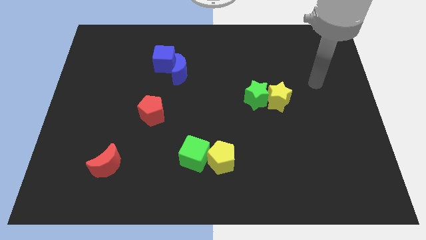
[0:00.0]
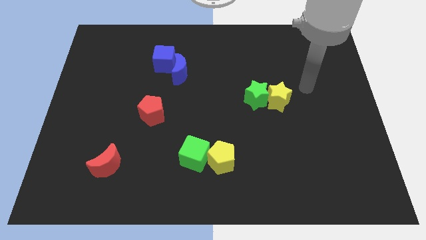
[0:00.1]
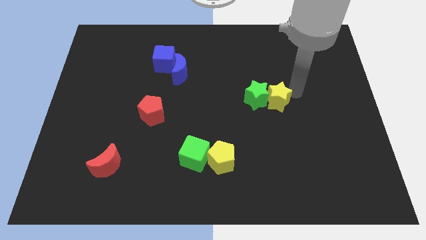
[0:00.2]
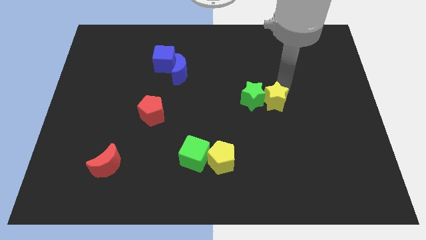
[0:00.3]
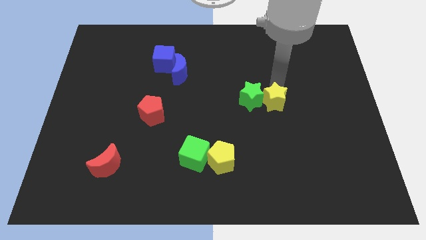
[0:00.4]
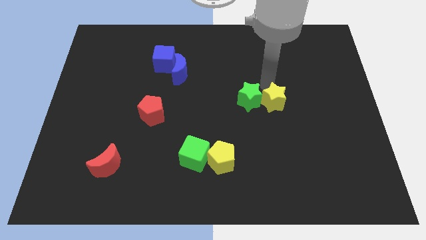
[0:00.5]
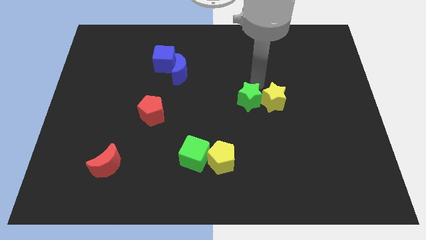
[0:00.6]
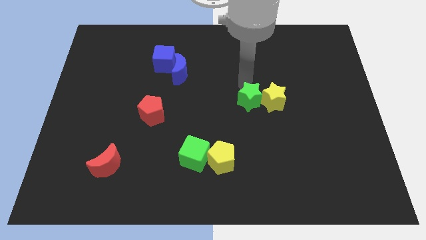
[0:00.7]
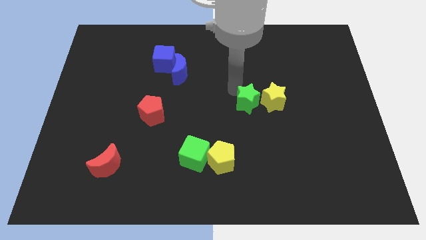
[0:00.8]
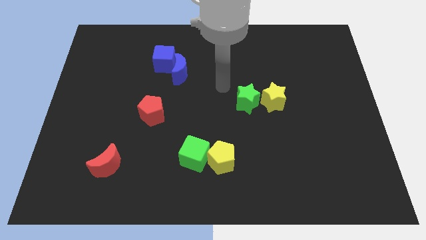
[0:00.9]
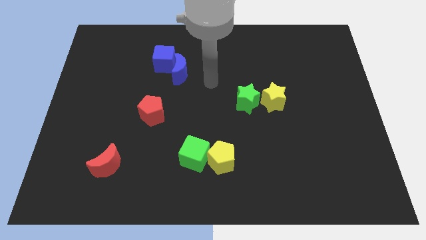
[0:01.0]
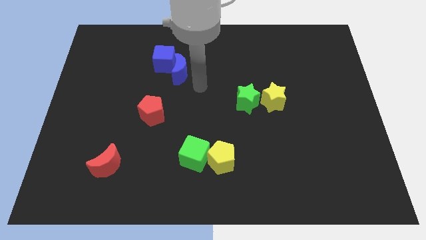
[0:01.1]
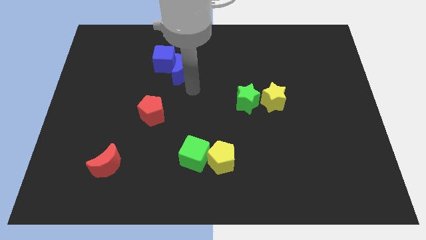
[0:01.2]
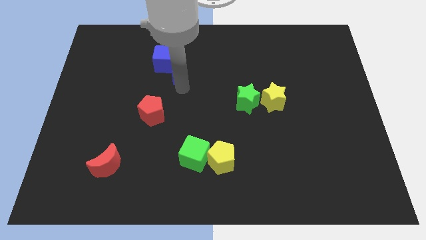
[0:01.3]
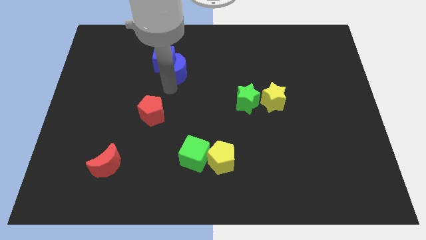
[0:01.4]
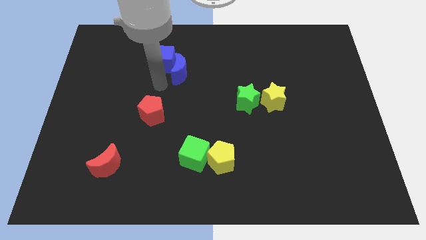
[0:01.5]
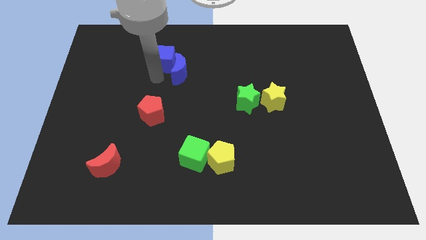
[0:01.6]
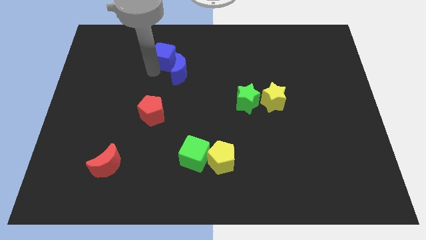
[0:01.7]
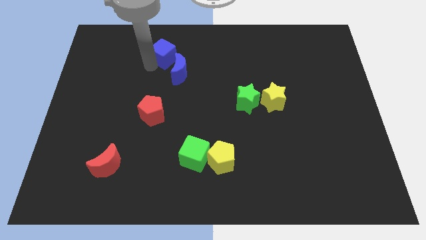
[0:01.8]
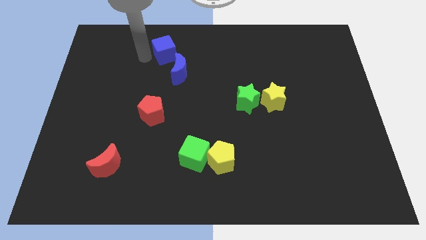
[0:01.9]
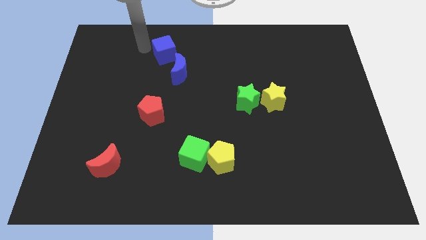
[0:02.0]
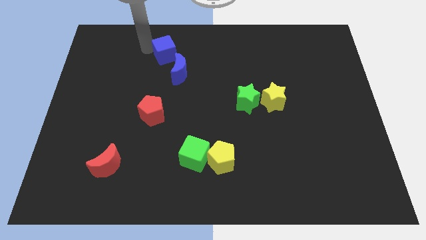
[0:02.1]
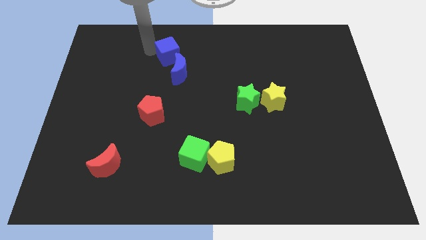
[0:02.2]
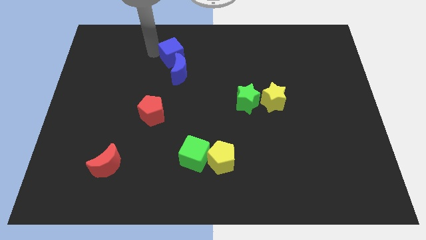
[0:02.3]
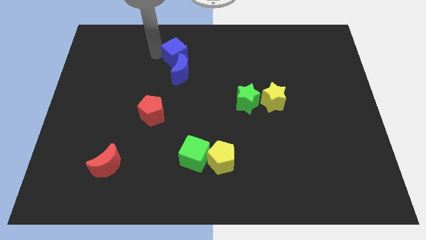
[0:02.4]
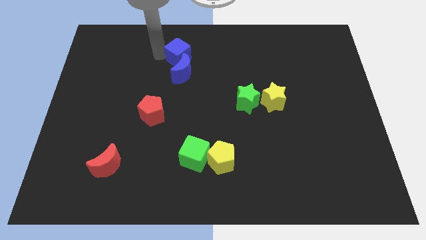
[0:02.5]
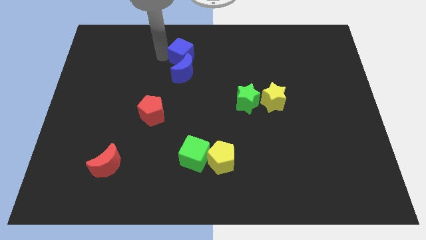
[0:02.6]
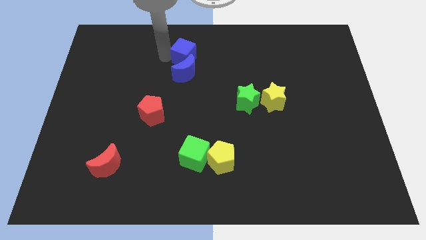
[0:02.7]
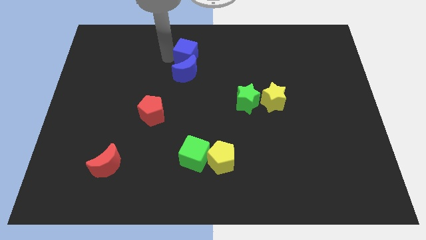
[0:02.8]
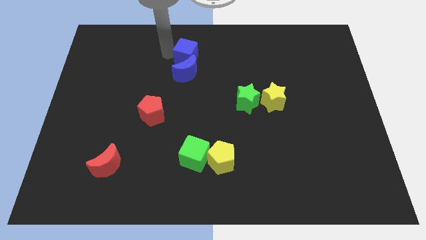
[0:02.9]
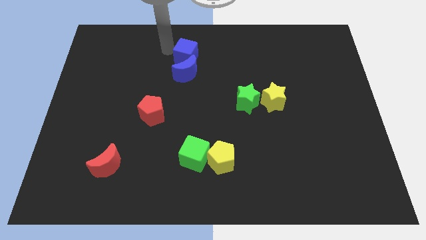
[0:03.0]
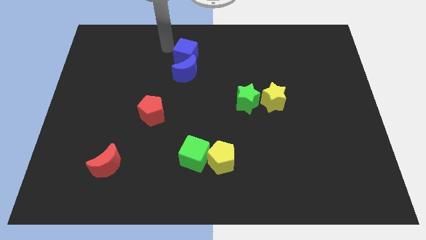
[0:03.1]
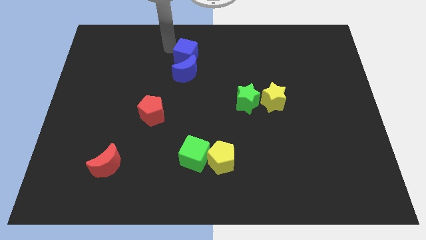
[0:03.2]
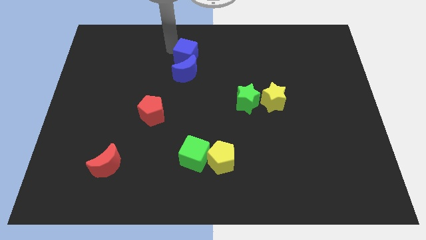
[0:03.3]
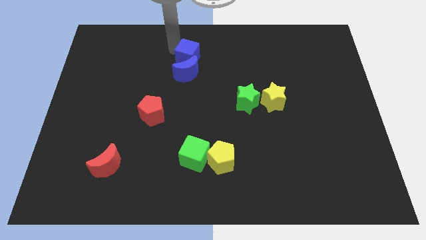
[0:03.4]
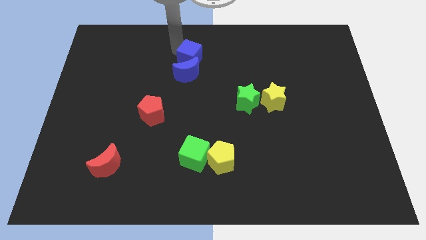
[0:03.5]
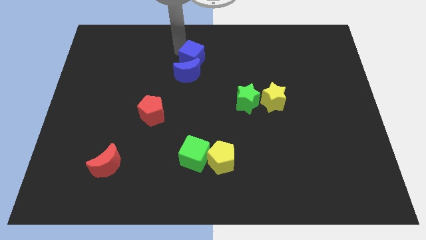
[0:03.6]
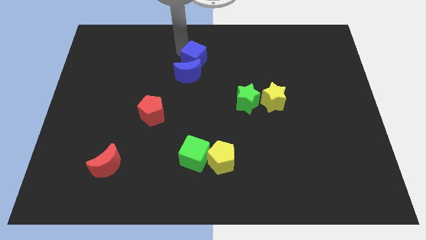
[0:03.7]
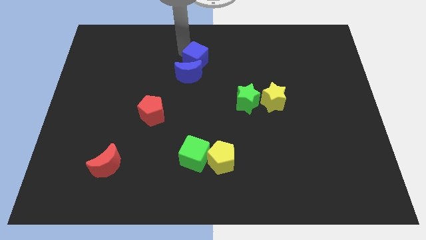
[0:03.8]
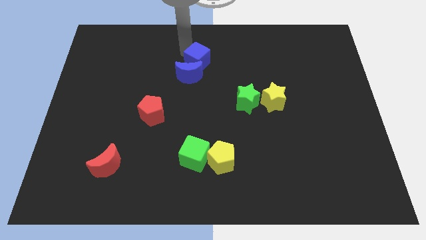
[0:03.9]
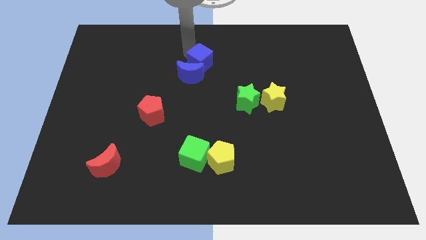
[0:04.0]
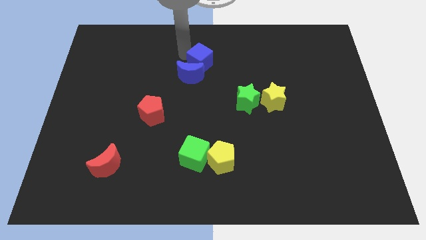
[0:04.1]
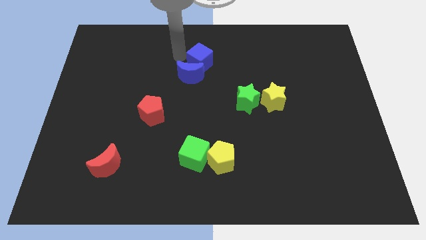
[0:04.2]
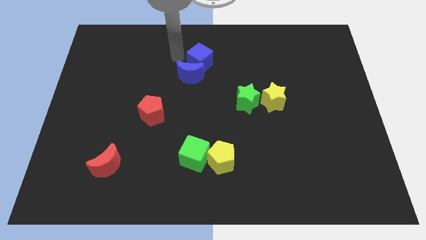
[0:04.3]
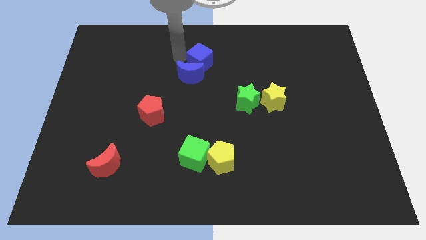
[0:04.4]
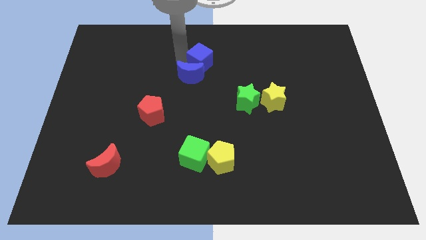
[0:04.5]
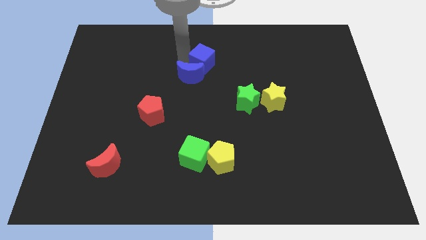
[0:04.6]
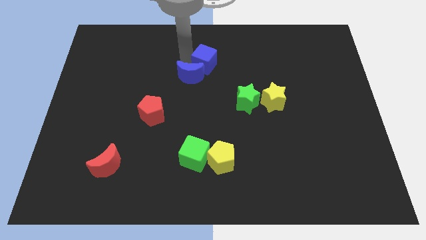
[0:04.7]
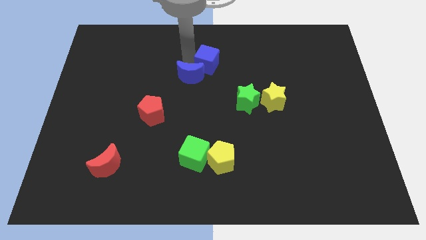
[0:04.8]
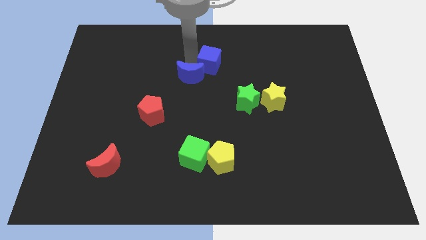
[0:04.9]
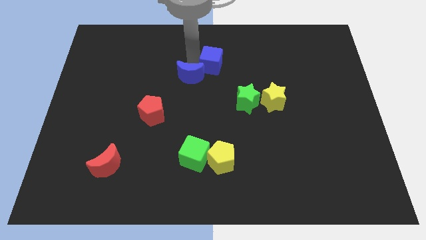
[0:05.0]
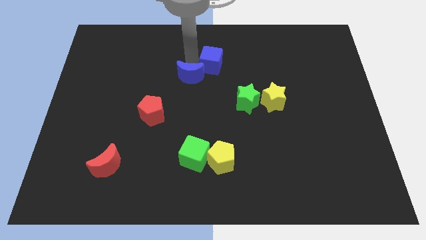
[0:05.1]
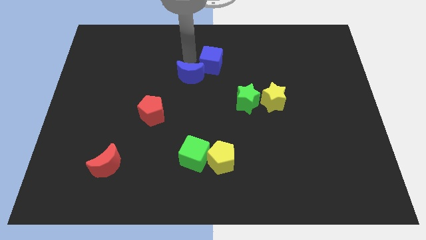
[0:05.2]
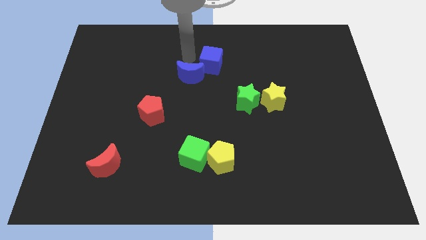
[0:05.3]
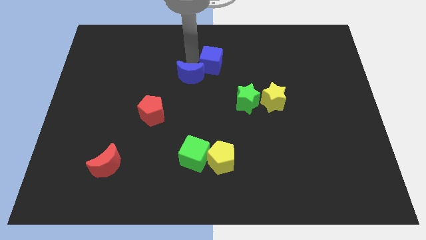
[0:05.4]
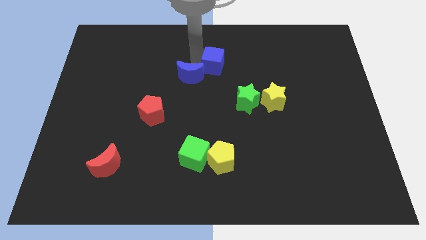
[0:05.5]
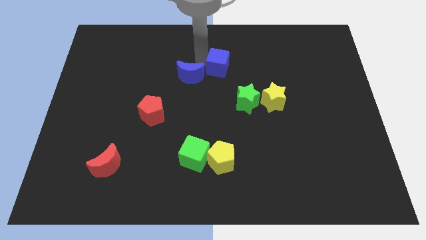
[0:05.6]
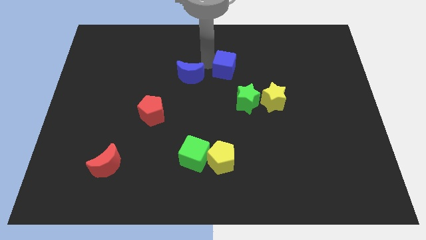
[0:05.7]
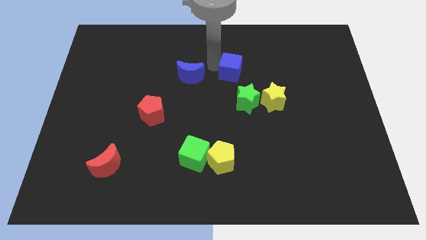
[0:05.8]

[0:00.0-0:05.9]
push the blue cube above the green star

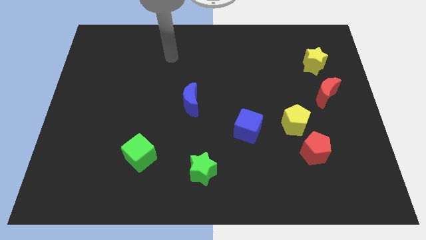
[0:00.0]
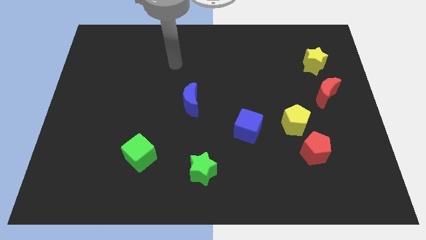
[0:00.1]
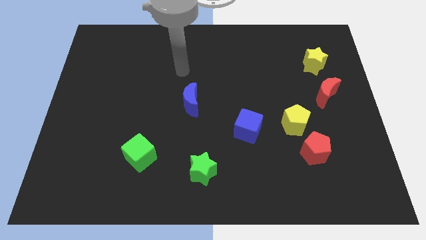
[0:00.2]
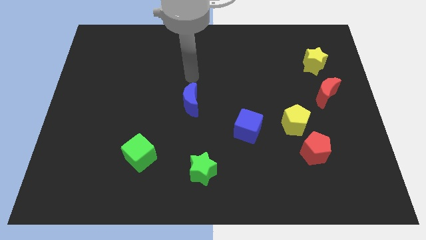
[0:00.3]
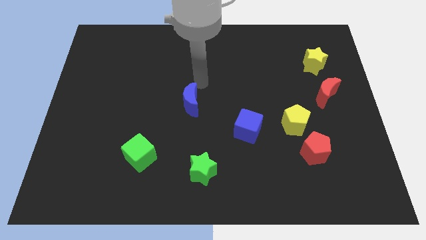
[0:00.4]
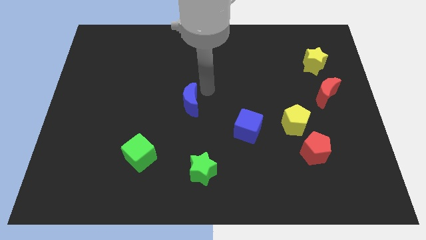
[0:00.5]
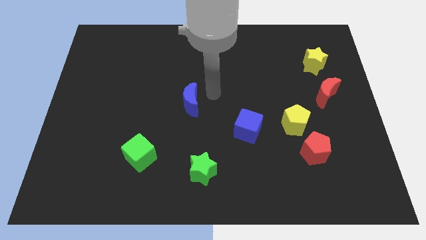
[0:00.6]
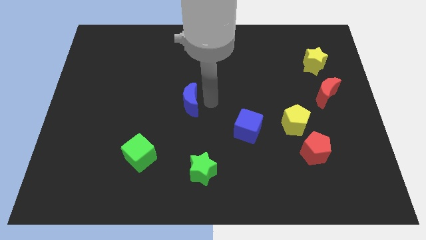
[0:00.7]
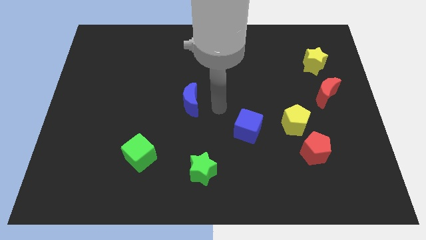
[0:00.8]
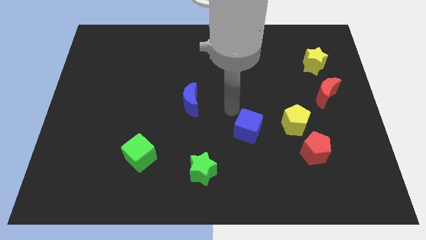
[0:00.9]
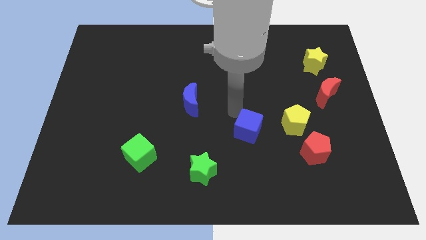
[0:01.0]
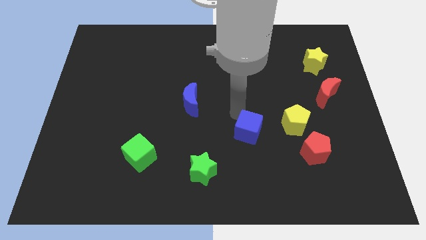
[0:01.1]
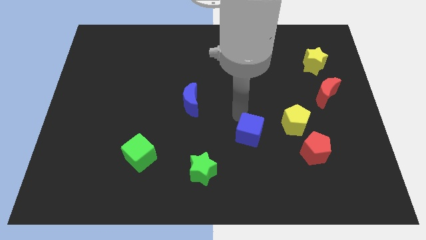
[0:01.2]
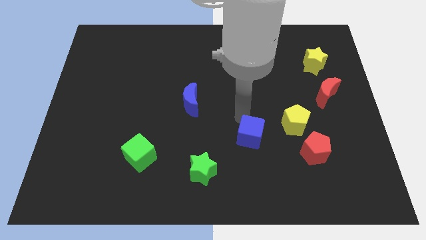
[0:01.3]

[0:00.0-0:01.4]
slide the blue cube left of the red pentagon
